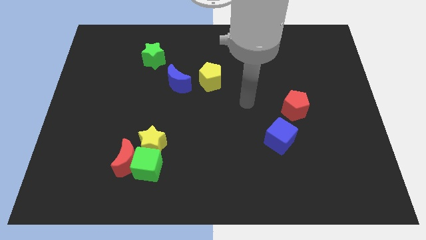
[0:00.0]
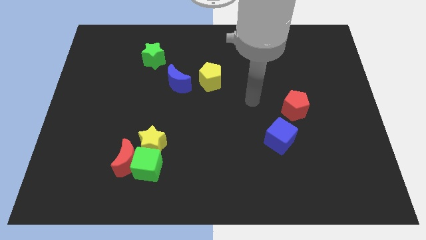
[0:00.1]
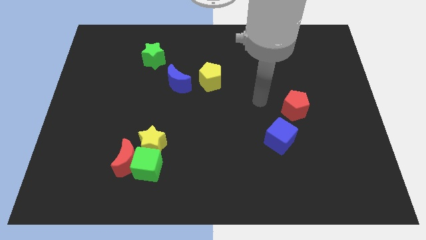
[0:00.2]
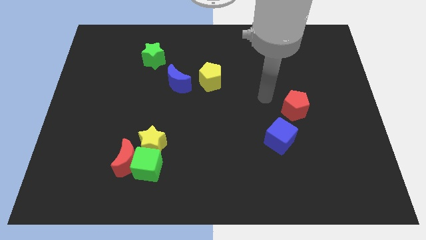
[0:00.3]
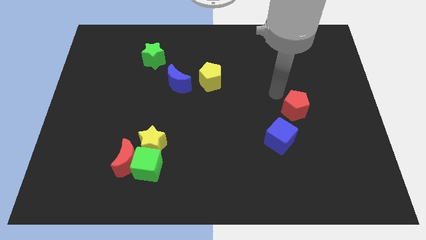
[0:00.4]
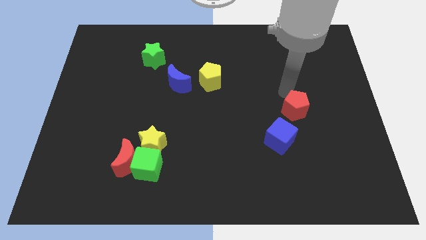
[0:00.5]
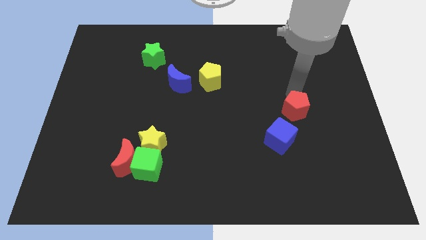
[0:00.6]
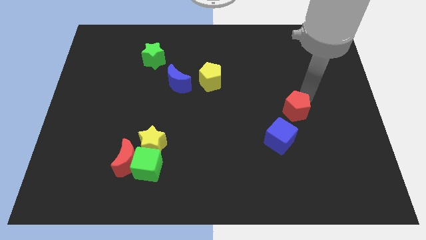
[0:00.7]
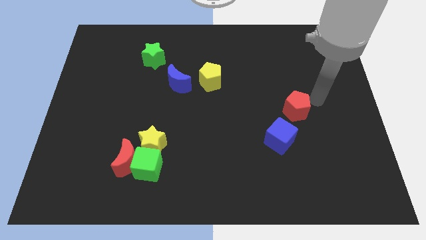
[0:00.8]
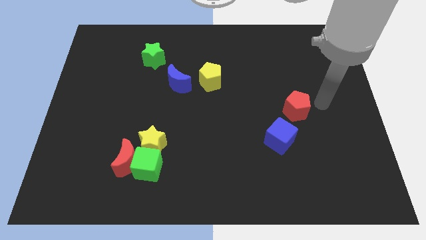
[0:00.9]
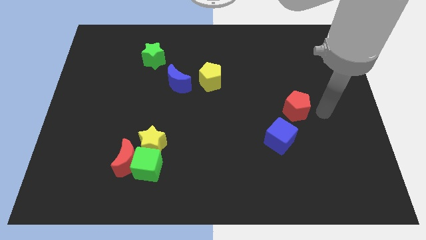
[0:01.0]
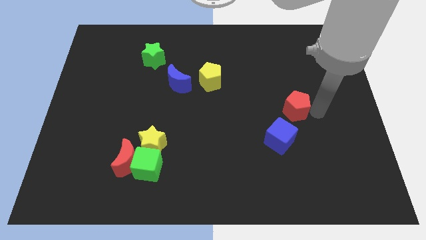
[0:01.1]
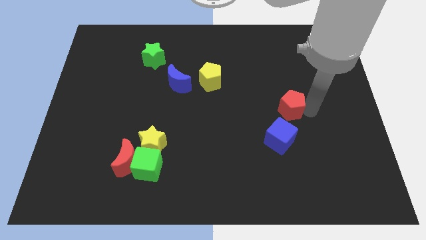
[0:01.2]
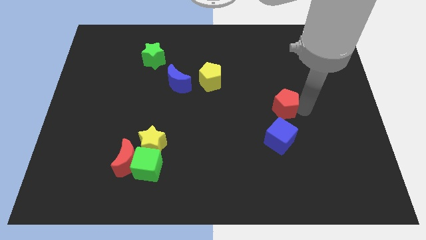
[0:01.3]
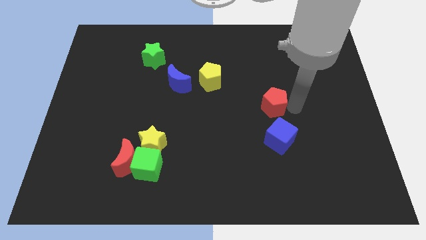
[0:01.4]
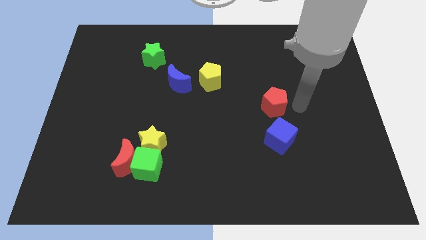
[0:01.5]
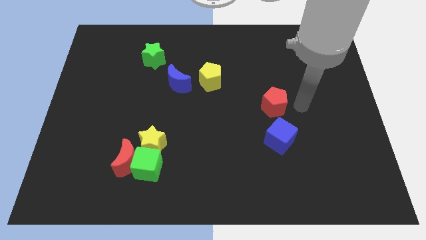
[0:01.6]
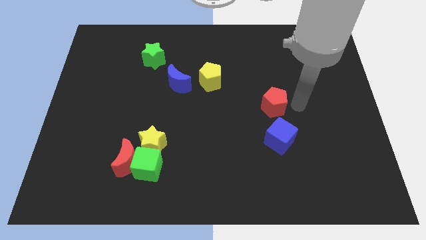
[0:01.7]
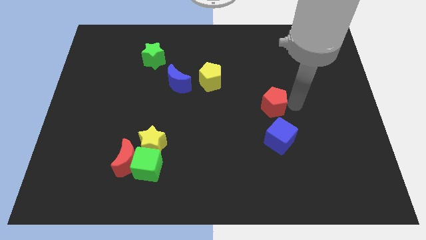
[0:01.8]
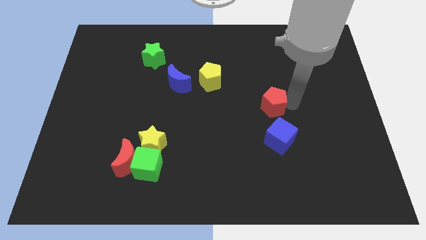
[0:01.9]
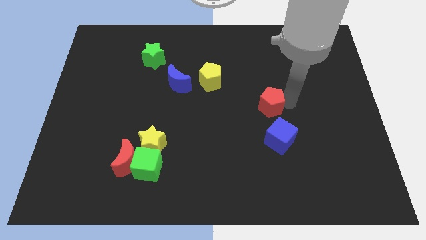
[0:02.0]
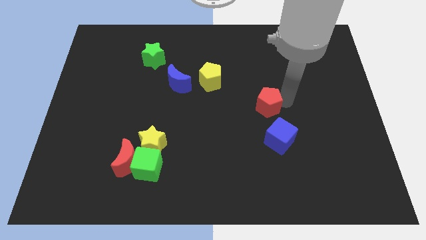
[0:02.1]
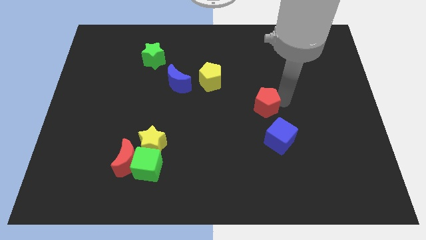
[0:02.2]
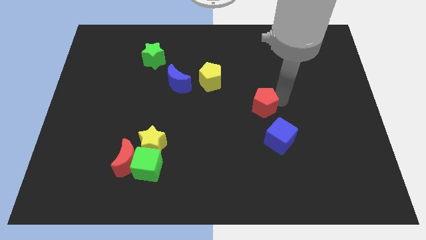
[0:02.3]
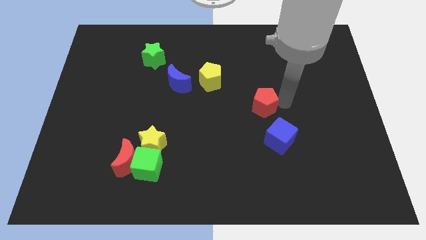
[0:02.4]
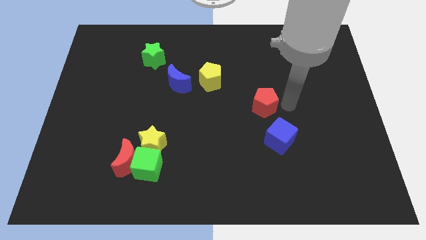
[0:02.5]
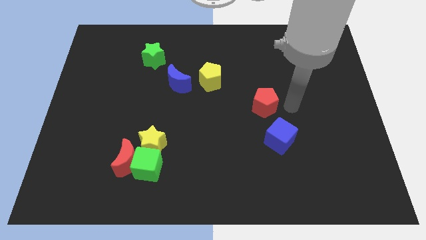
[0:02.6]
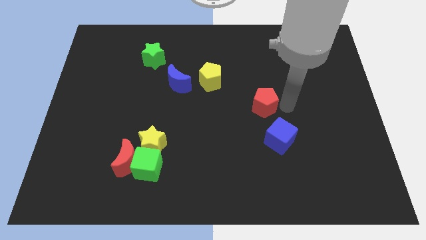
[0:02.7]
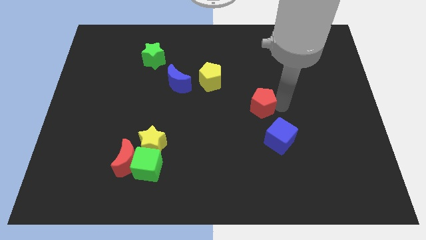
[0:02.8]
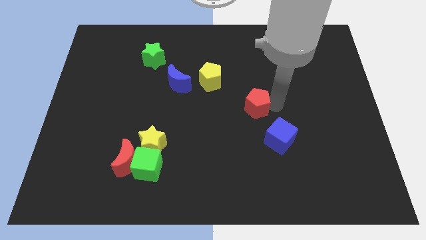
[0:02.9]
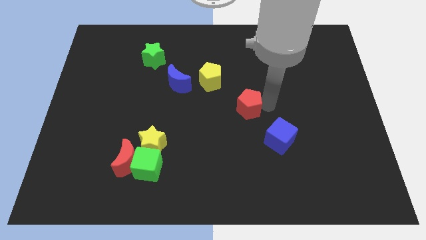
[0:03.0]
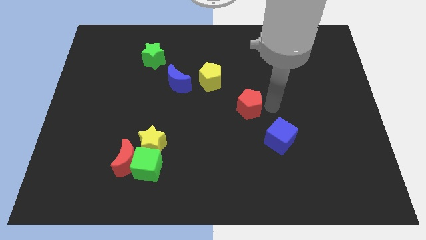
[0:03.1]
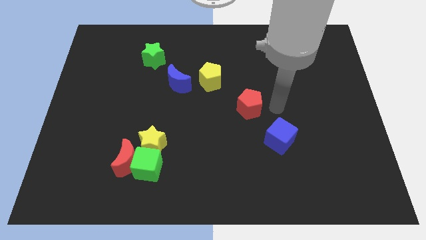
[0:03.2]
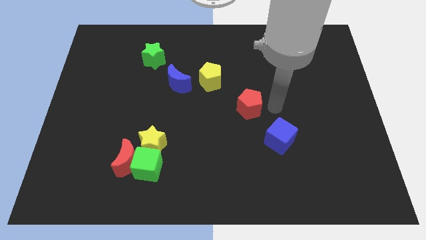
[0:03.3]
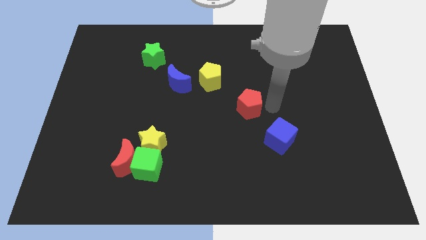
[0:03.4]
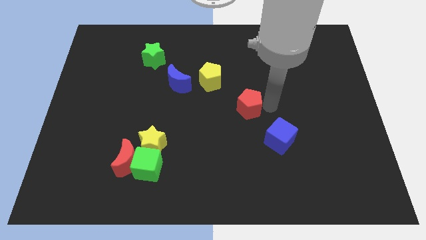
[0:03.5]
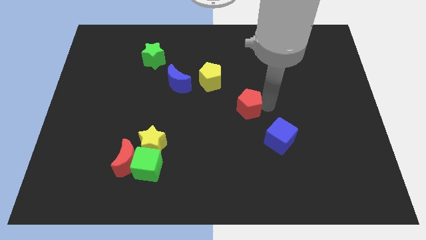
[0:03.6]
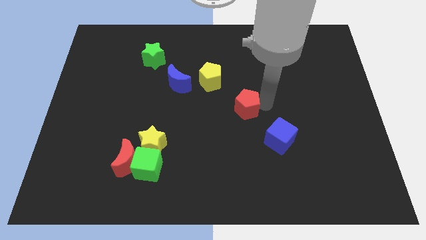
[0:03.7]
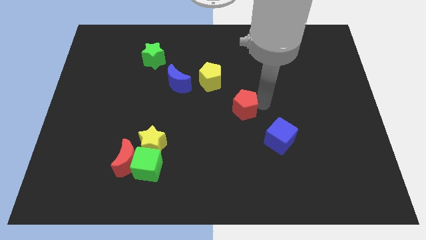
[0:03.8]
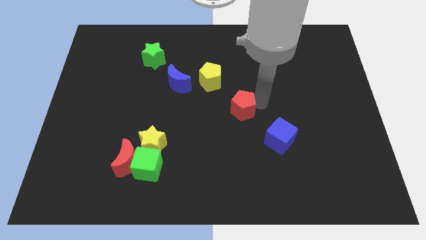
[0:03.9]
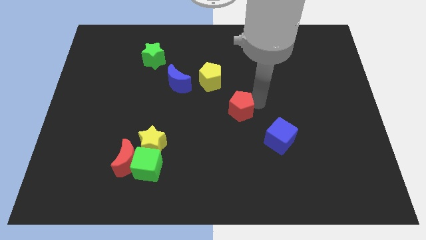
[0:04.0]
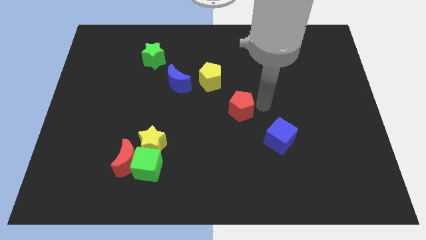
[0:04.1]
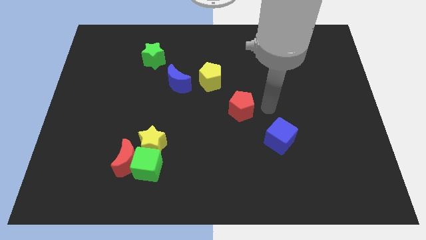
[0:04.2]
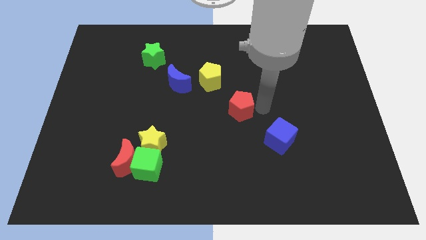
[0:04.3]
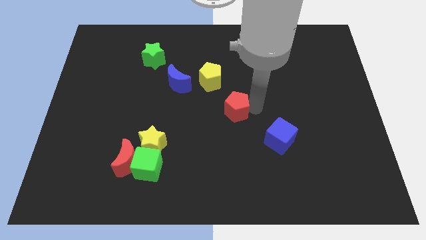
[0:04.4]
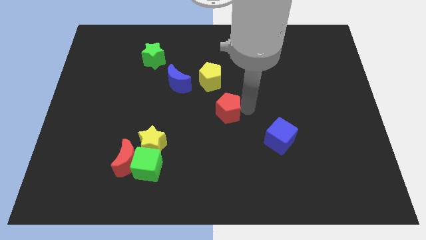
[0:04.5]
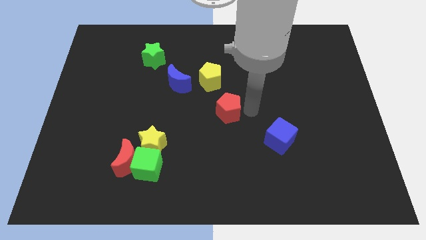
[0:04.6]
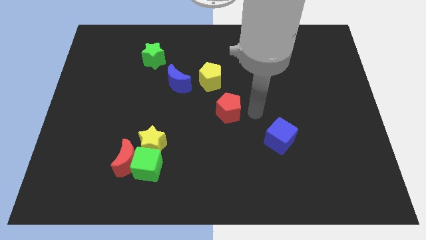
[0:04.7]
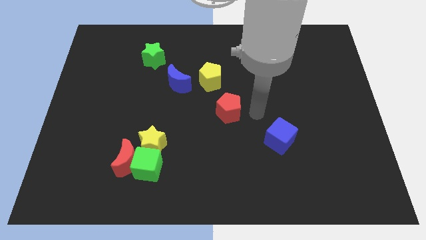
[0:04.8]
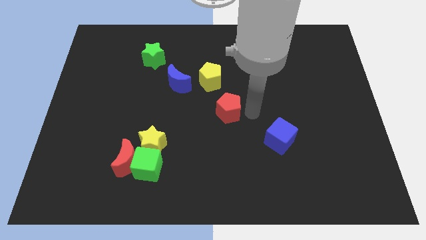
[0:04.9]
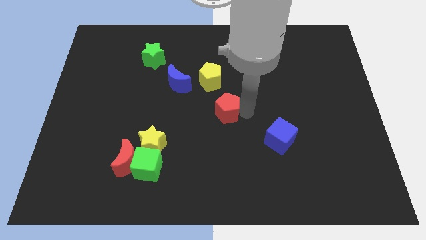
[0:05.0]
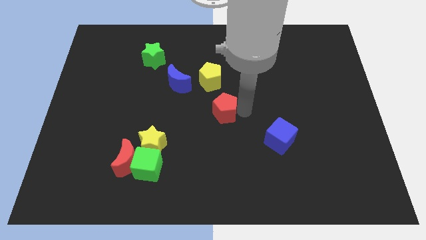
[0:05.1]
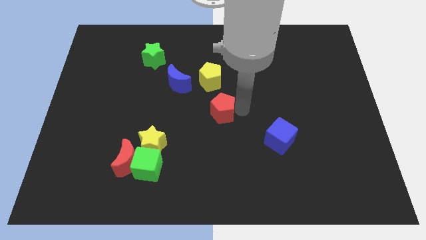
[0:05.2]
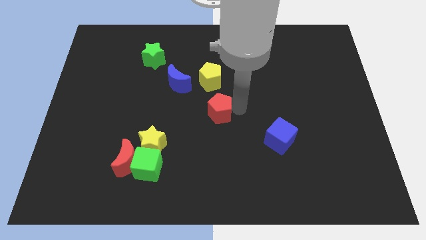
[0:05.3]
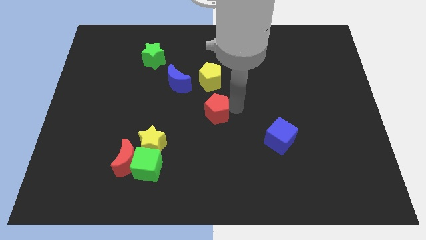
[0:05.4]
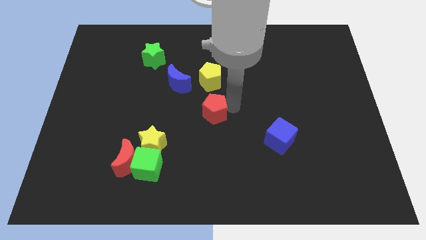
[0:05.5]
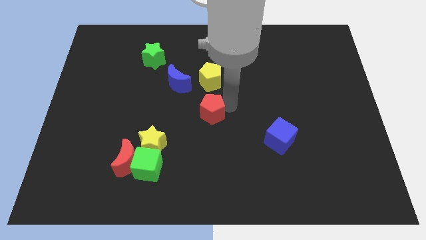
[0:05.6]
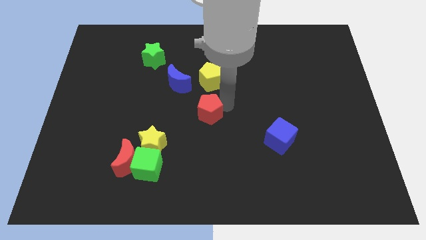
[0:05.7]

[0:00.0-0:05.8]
push the red pentagon left

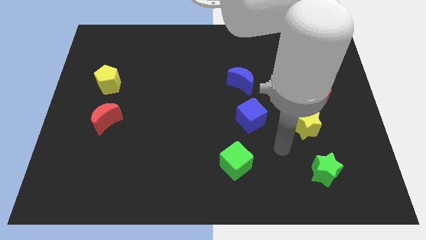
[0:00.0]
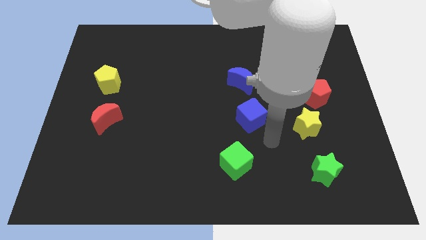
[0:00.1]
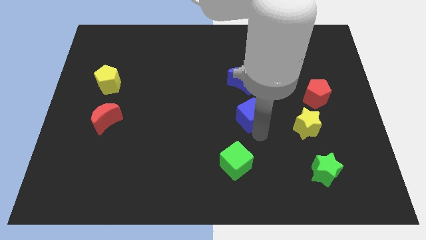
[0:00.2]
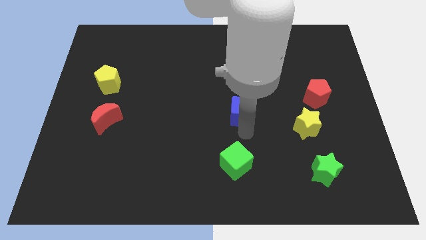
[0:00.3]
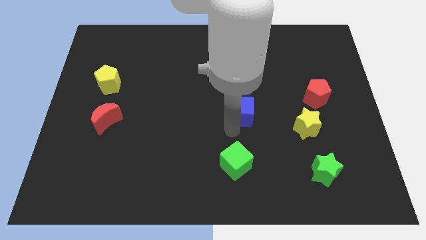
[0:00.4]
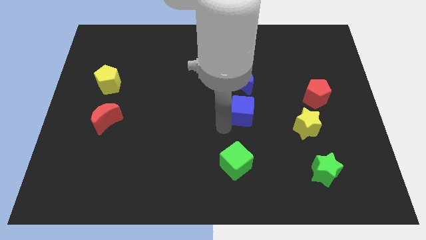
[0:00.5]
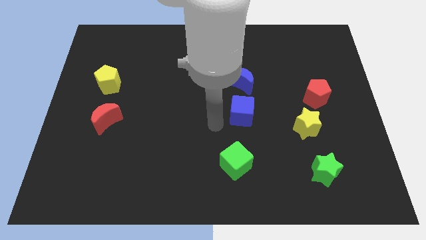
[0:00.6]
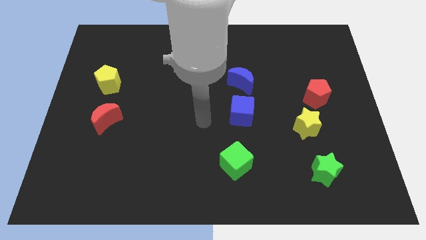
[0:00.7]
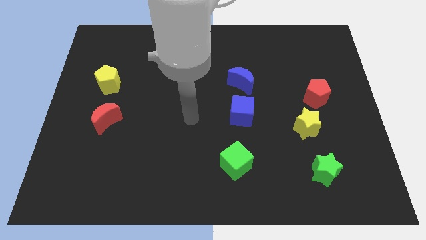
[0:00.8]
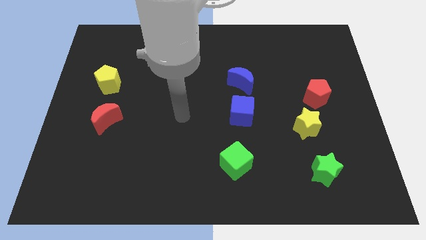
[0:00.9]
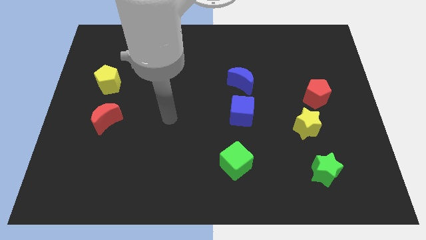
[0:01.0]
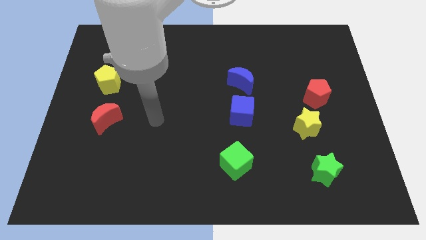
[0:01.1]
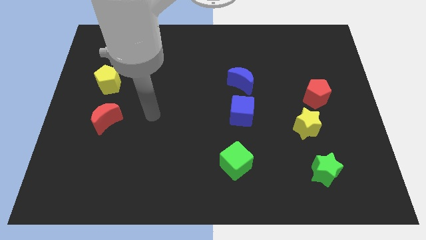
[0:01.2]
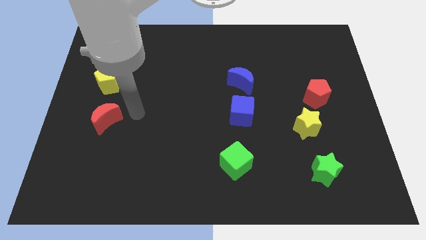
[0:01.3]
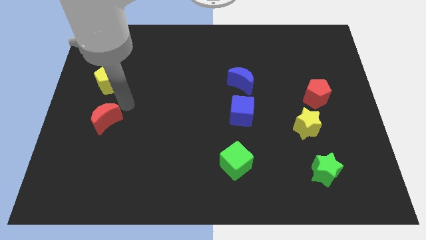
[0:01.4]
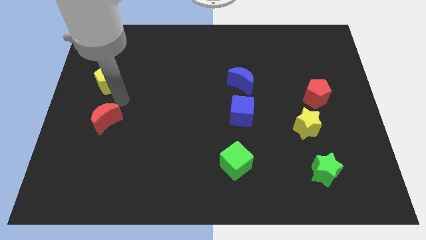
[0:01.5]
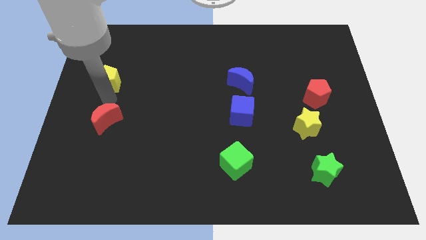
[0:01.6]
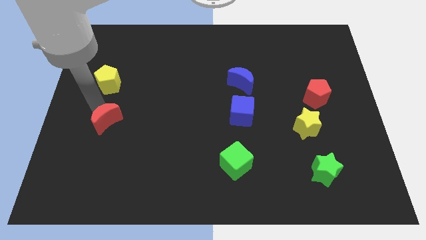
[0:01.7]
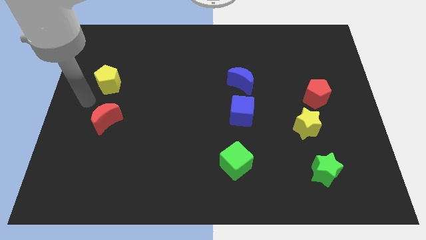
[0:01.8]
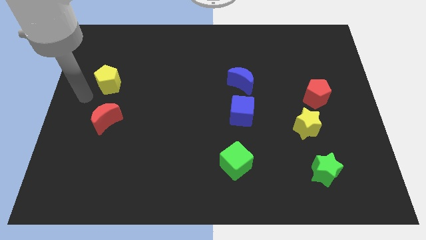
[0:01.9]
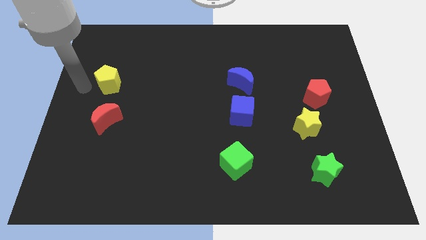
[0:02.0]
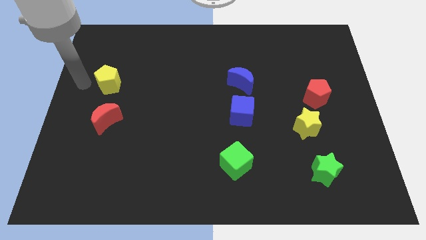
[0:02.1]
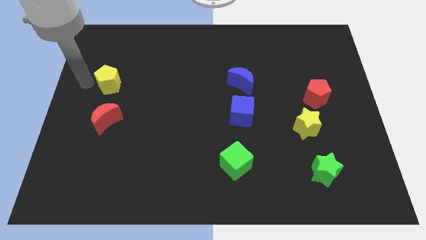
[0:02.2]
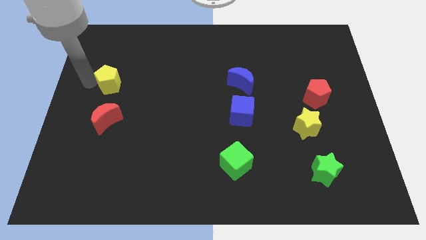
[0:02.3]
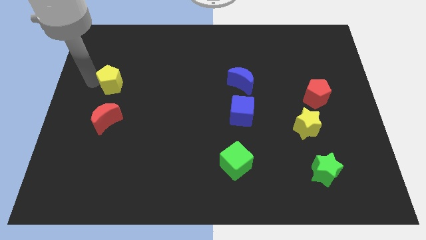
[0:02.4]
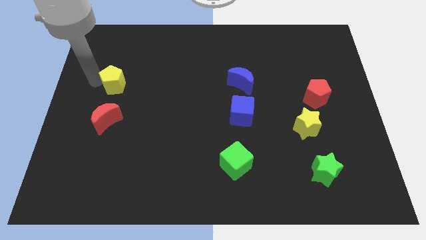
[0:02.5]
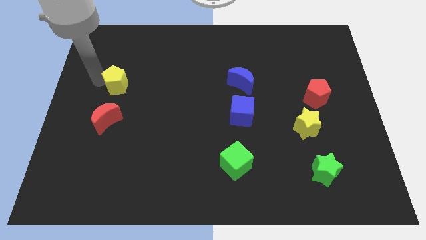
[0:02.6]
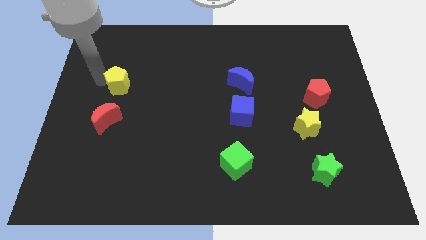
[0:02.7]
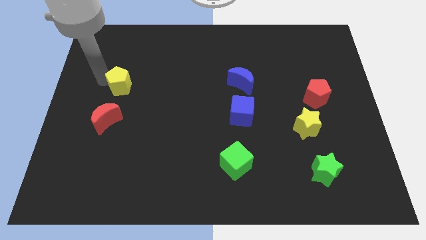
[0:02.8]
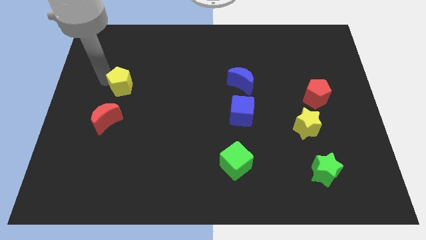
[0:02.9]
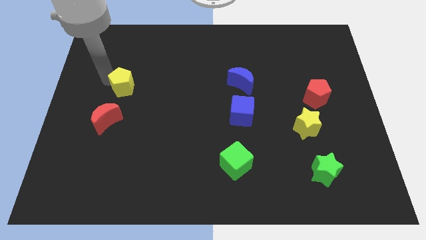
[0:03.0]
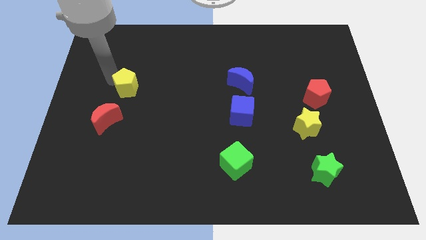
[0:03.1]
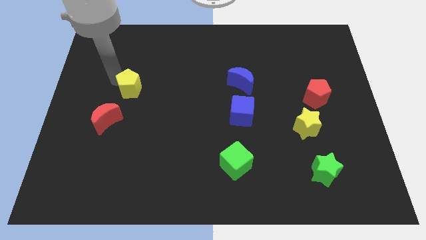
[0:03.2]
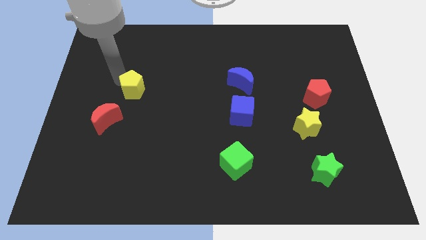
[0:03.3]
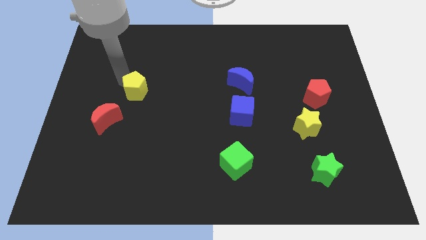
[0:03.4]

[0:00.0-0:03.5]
move the yellow pentagon right a little bit
